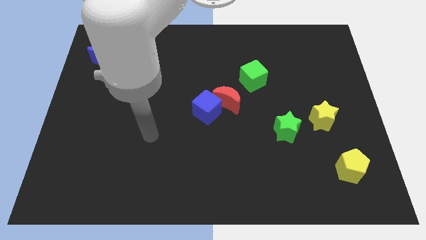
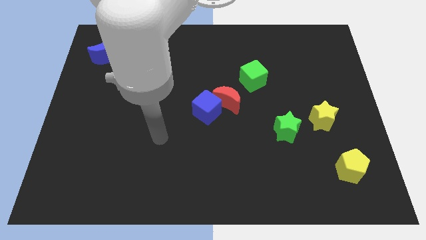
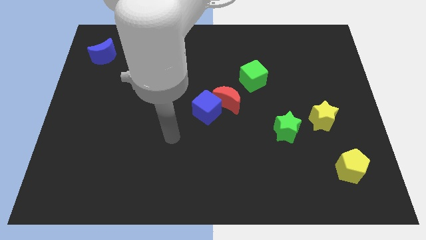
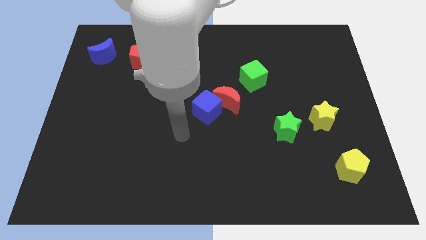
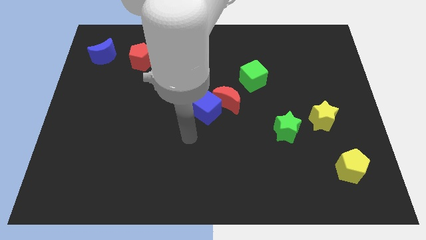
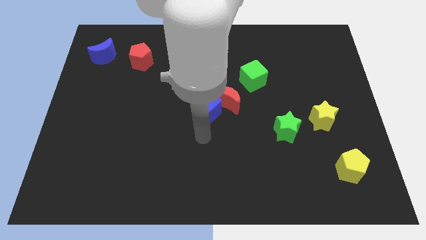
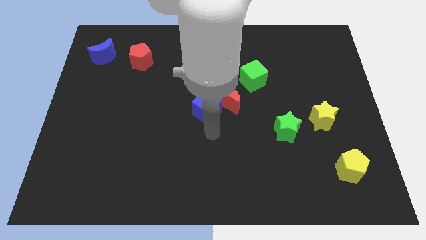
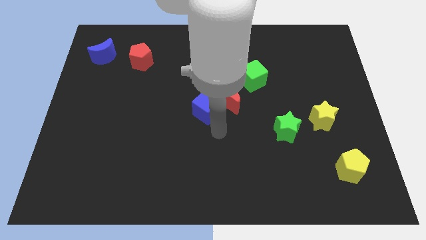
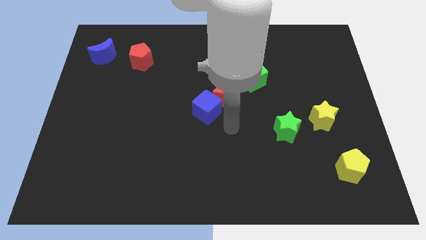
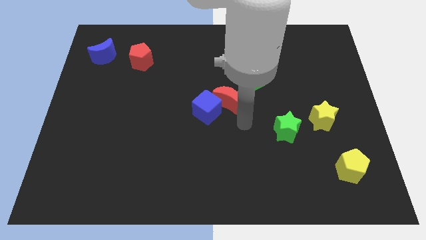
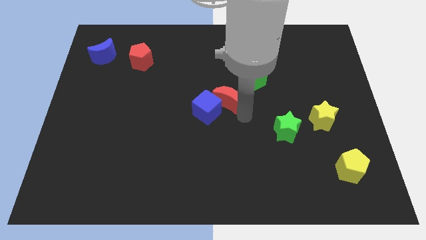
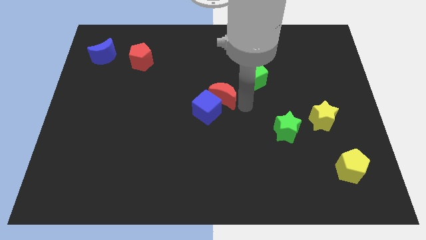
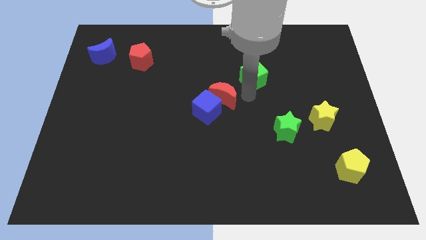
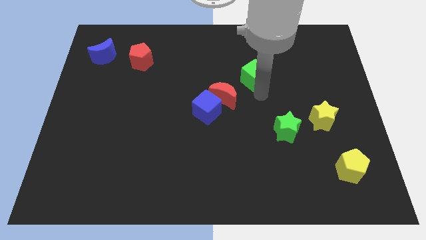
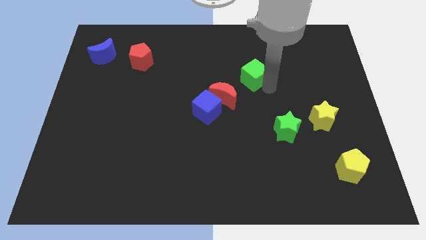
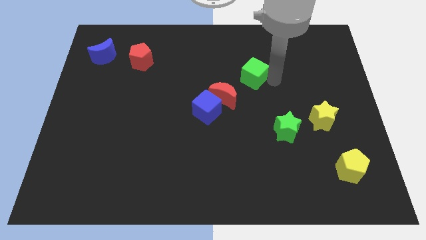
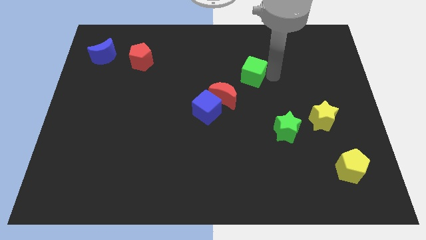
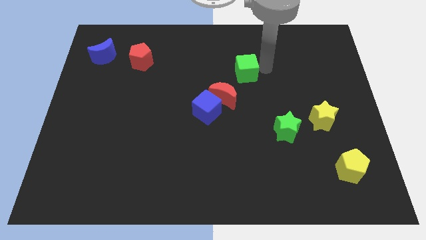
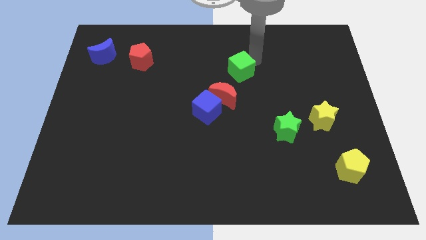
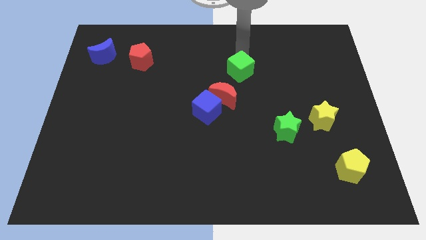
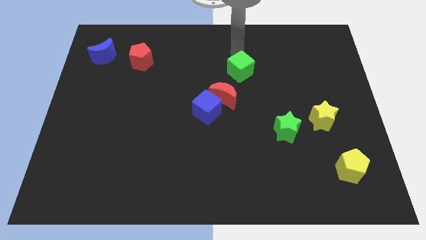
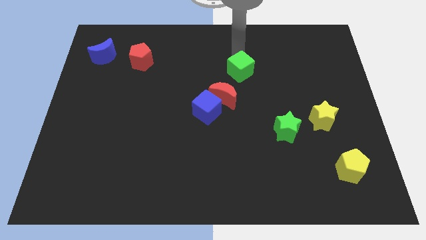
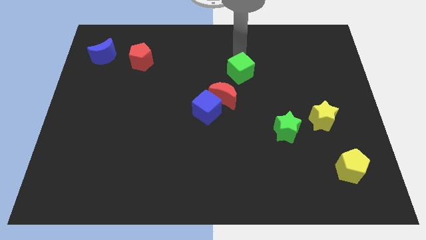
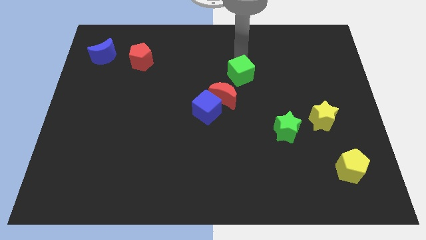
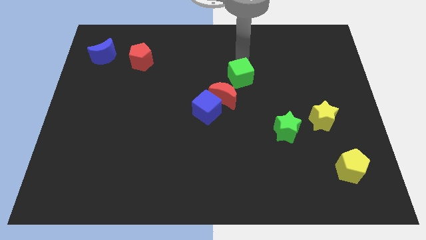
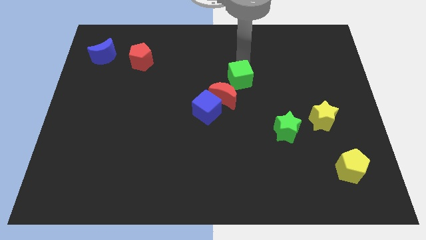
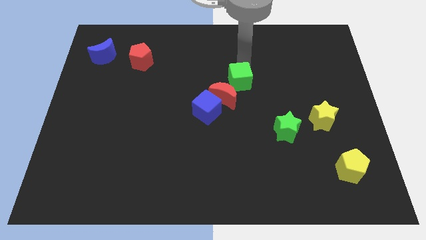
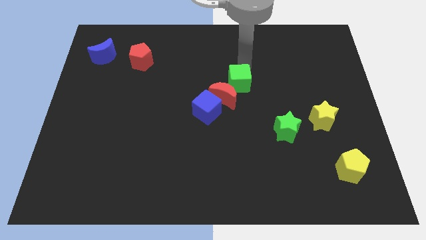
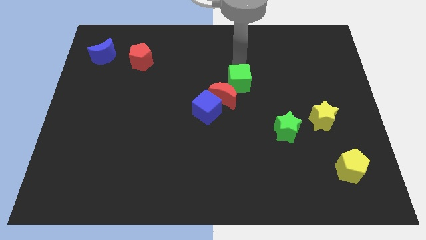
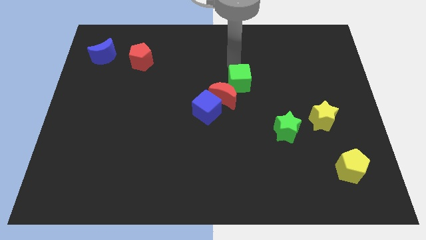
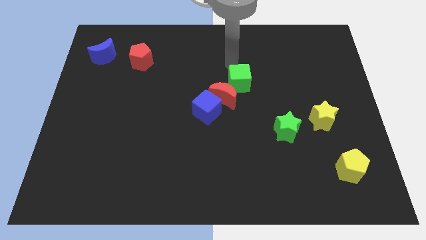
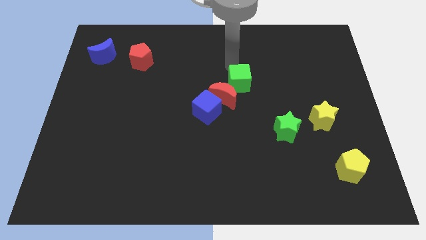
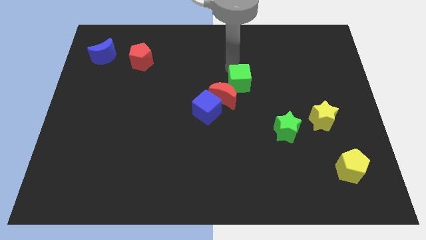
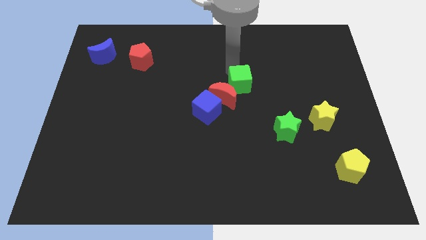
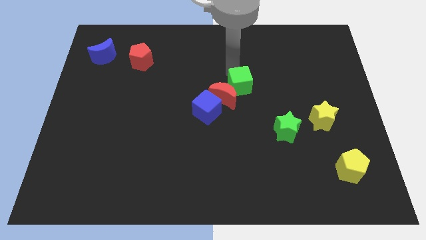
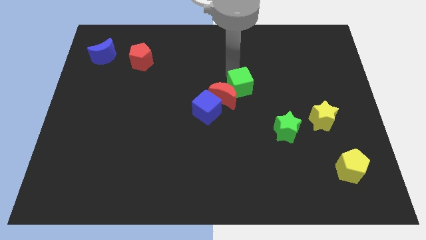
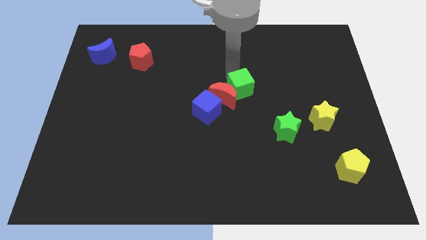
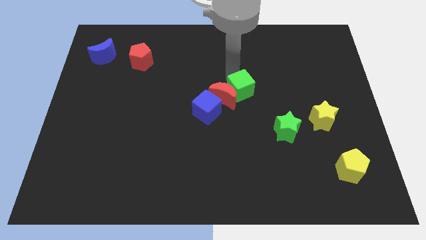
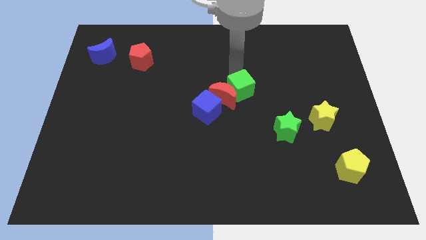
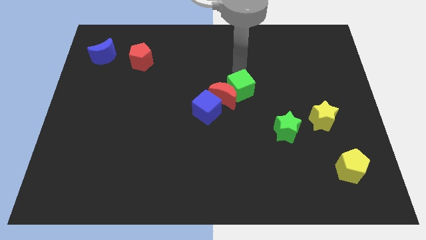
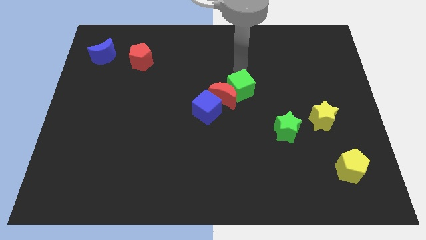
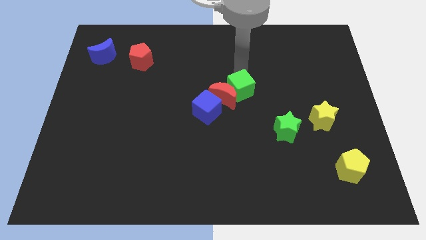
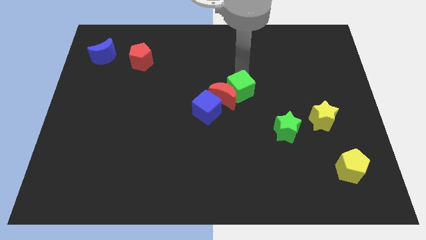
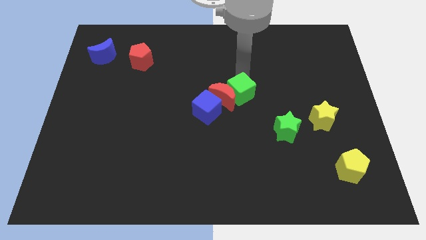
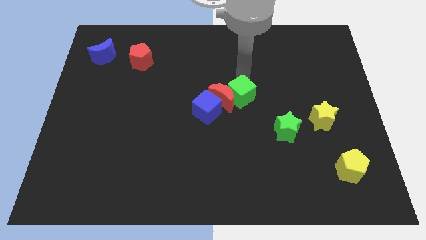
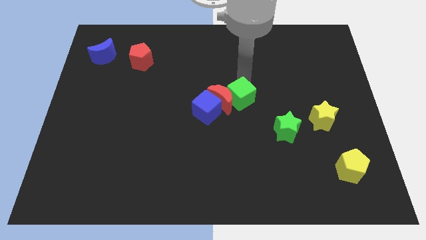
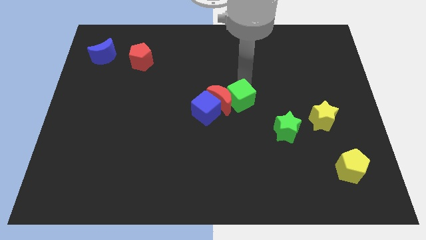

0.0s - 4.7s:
slide the green cube slightly downwards and left

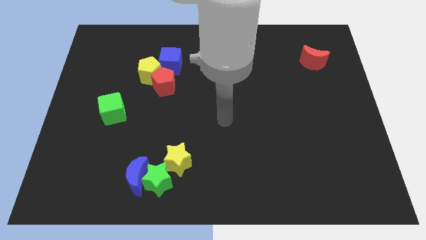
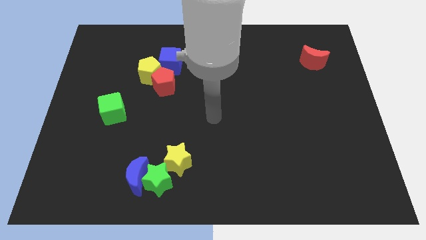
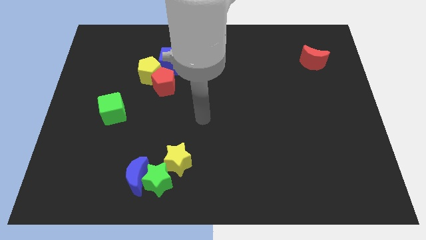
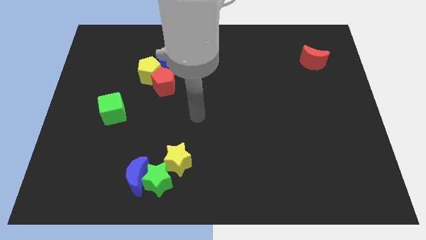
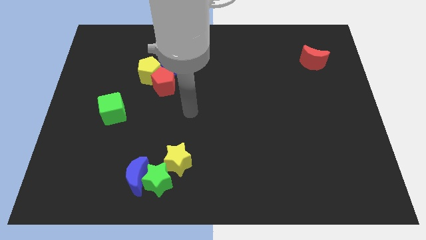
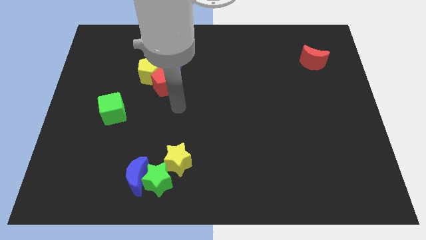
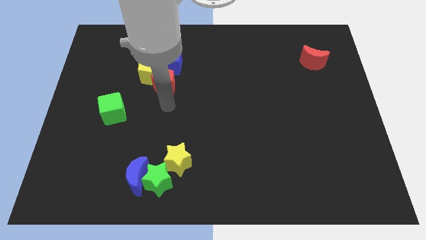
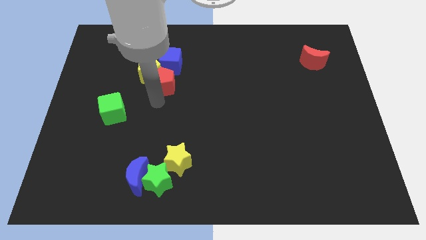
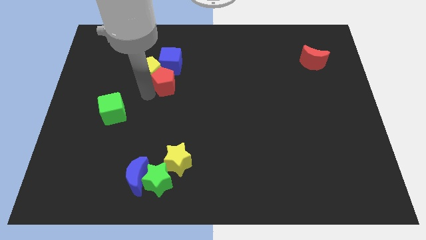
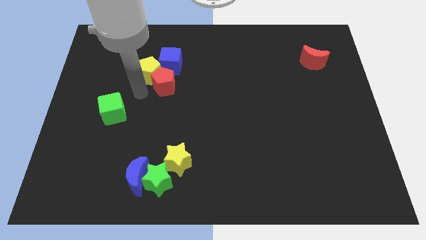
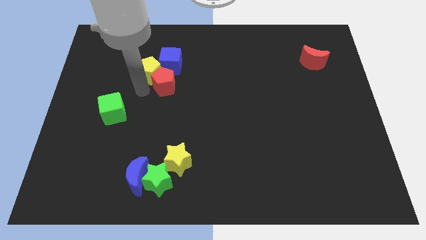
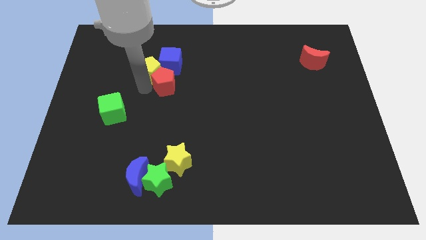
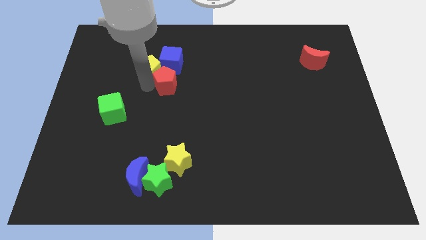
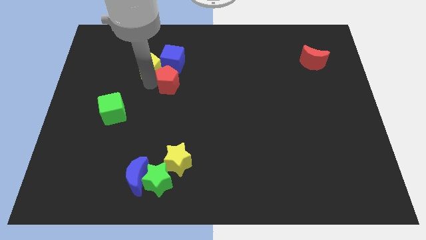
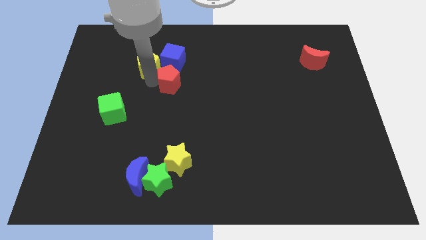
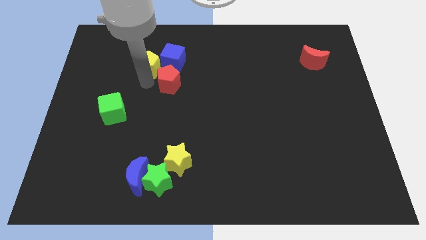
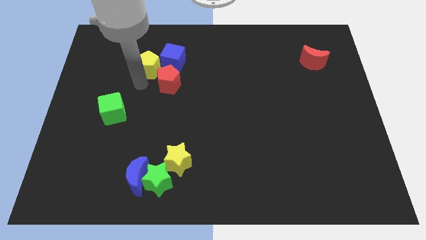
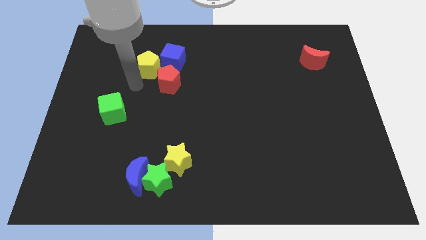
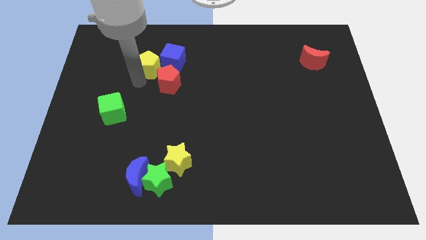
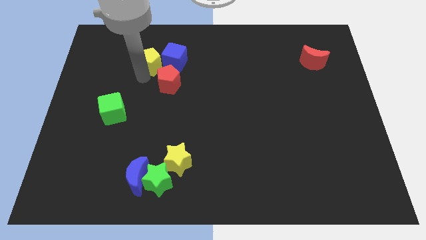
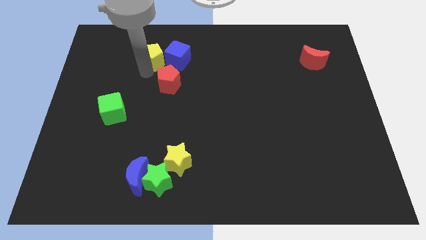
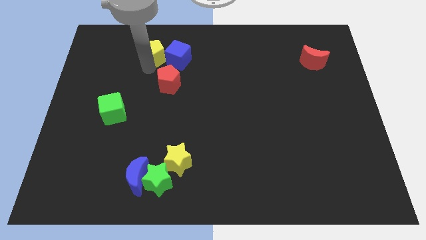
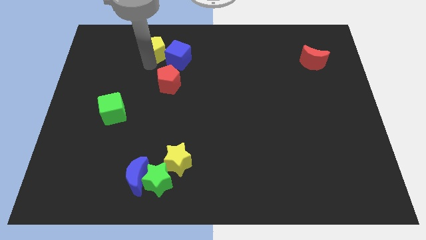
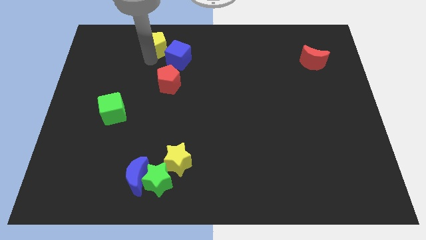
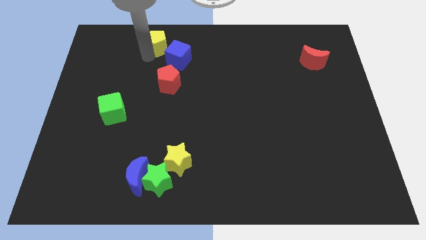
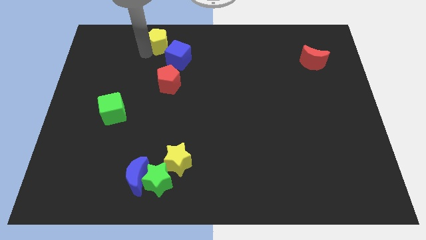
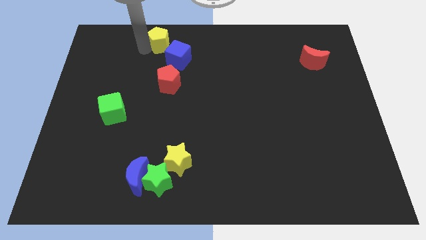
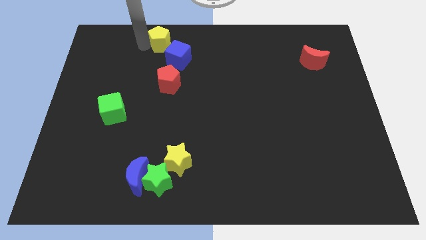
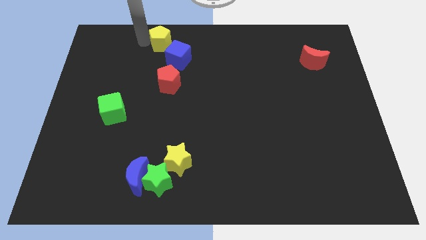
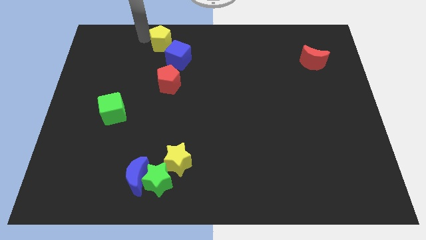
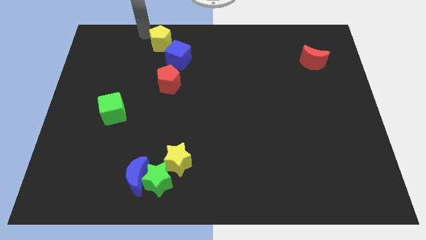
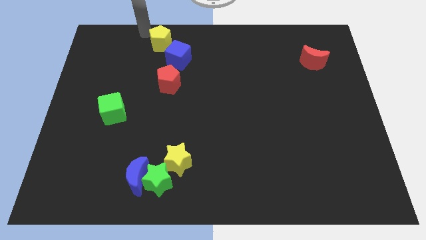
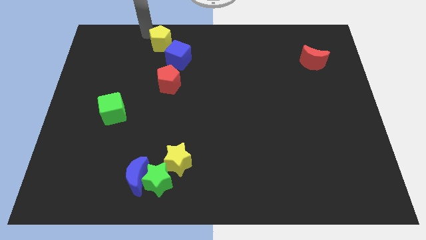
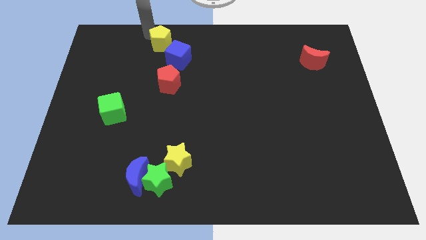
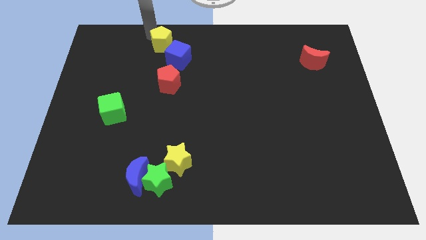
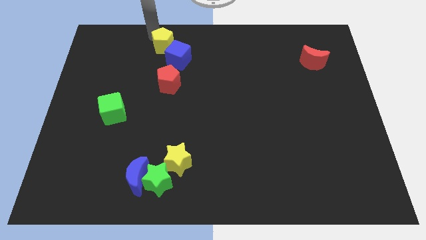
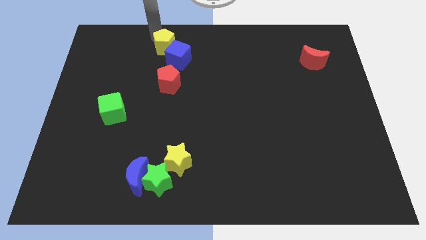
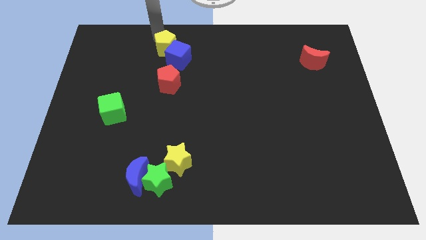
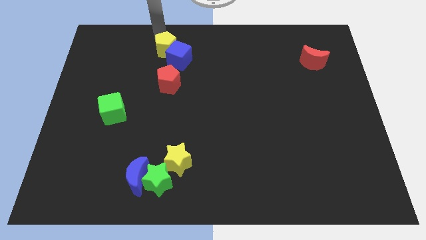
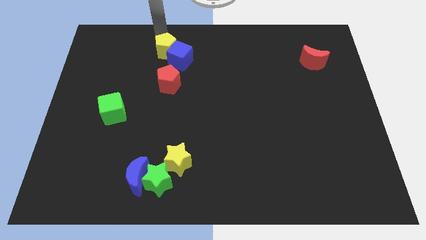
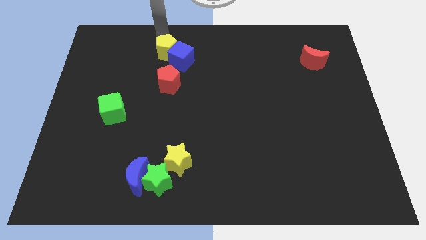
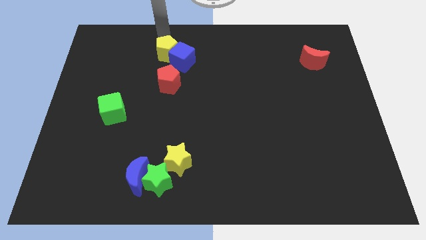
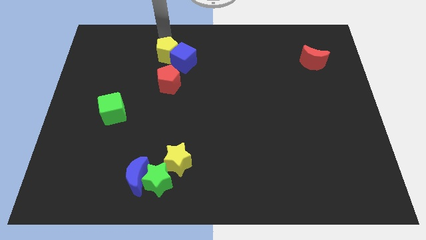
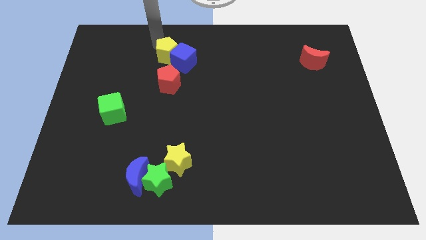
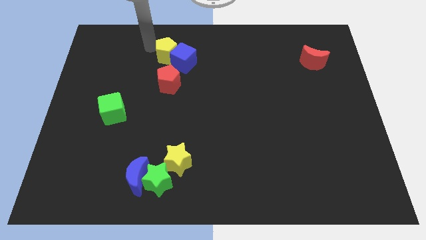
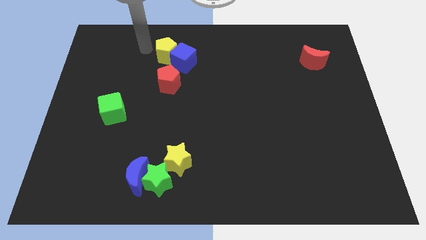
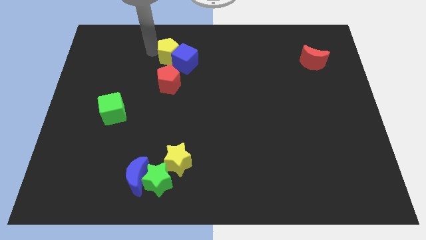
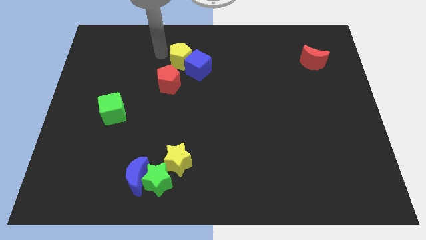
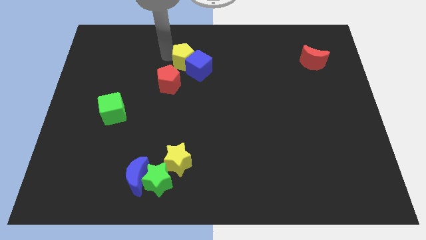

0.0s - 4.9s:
slightly move the yellow pentagon to the right
